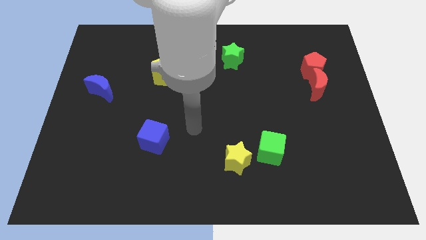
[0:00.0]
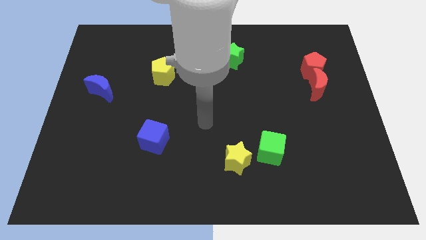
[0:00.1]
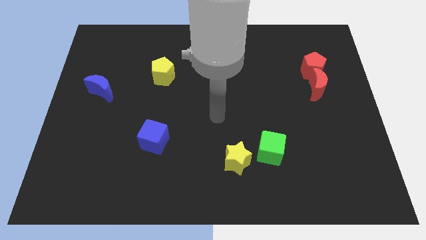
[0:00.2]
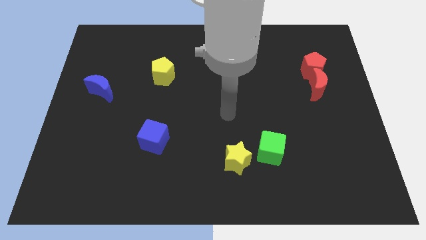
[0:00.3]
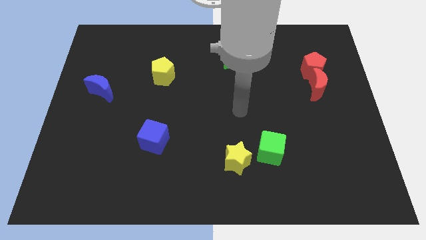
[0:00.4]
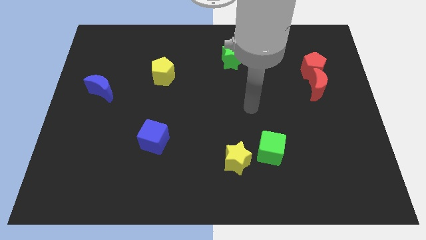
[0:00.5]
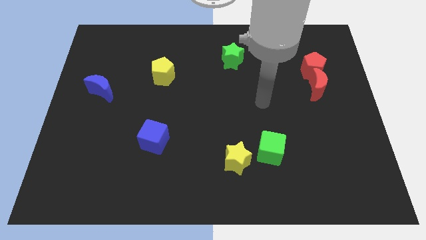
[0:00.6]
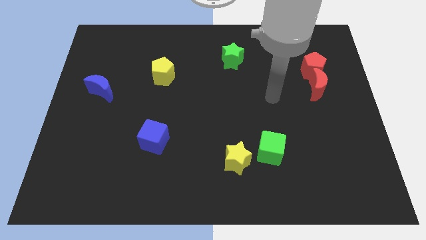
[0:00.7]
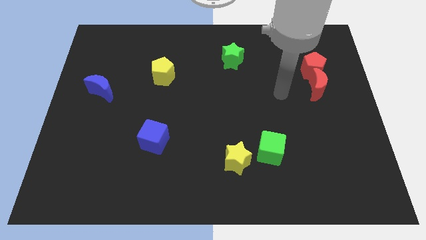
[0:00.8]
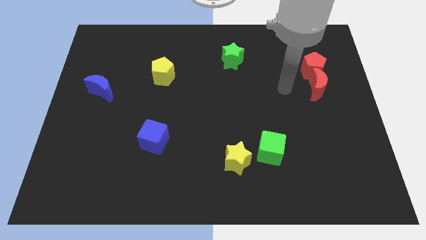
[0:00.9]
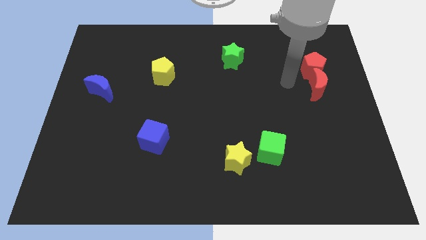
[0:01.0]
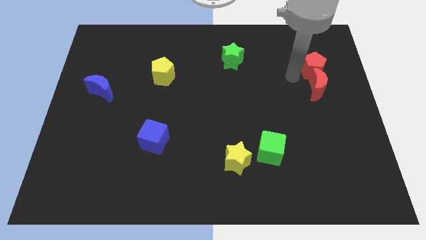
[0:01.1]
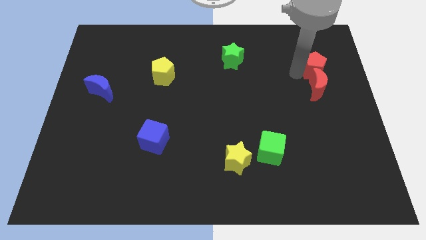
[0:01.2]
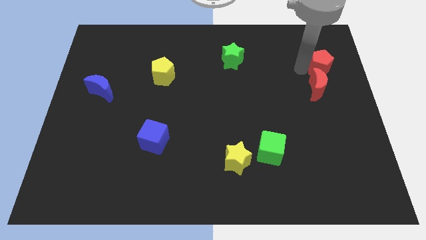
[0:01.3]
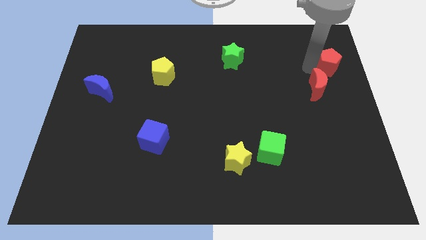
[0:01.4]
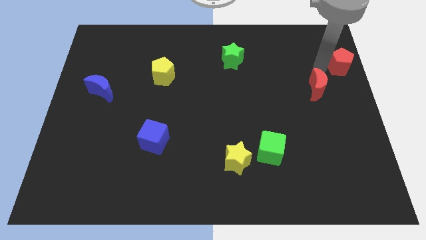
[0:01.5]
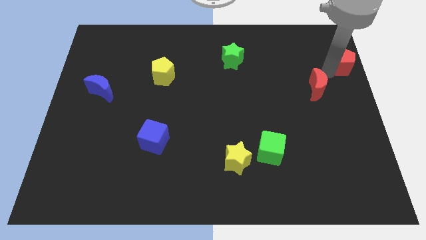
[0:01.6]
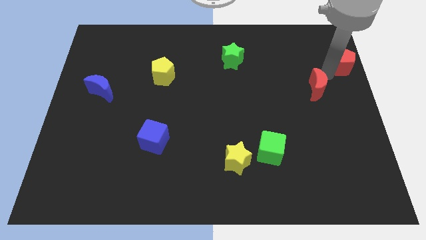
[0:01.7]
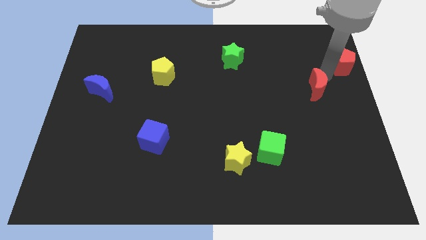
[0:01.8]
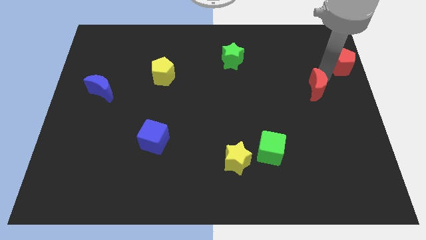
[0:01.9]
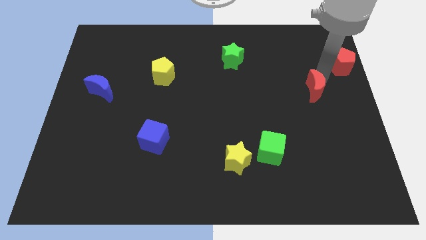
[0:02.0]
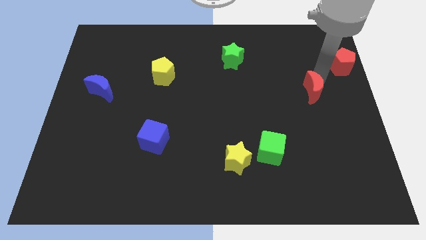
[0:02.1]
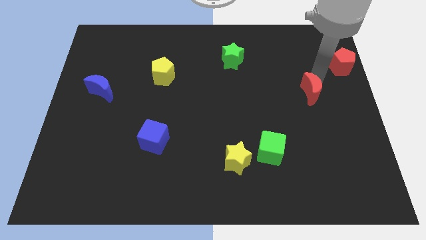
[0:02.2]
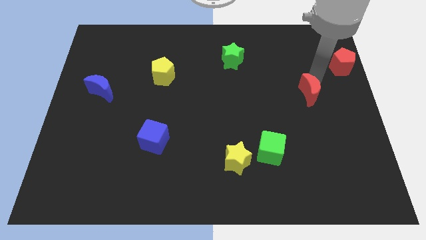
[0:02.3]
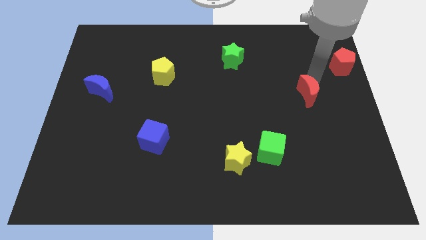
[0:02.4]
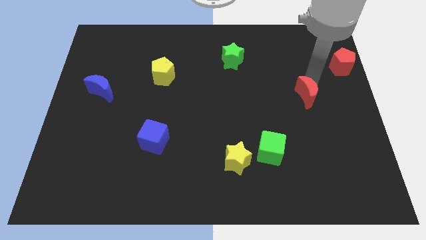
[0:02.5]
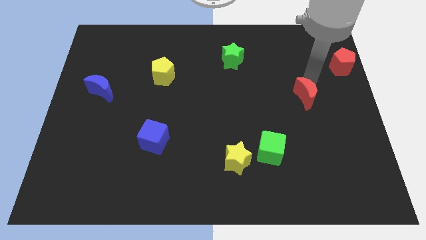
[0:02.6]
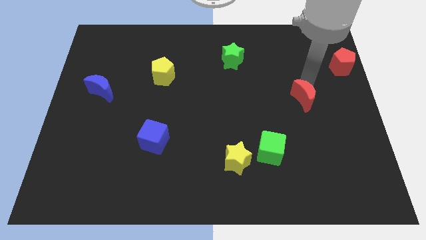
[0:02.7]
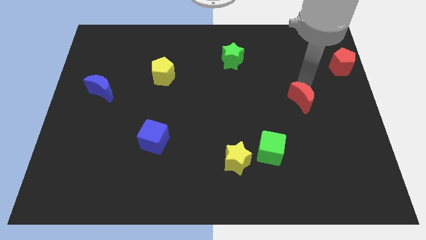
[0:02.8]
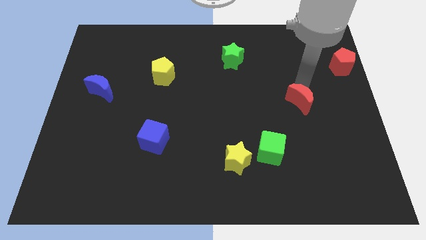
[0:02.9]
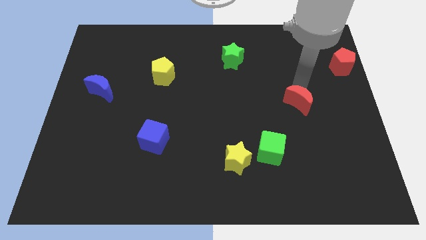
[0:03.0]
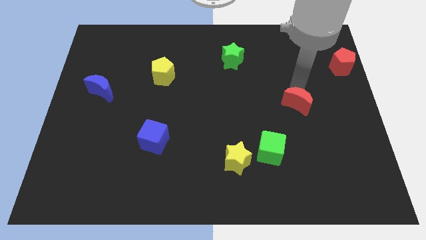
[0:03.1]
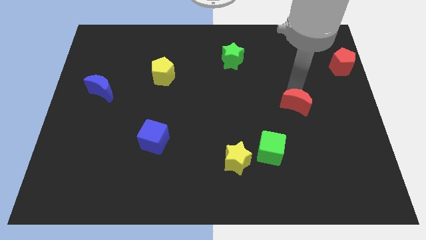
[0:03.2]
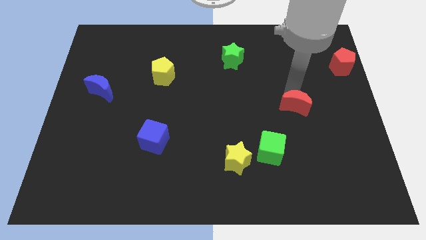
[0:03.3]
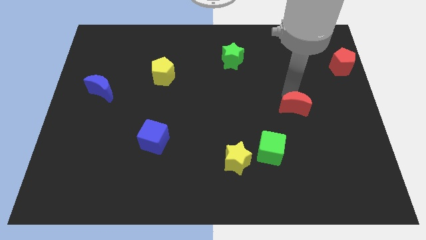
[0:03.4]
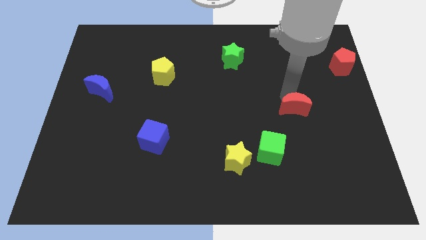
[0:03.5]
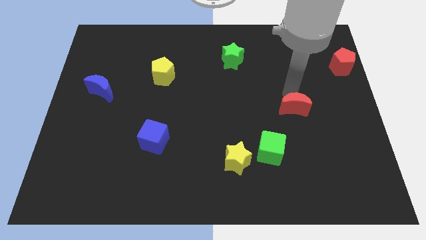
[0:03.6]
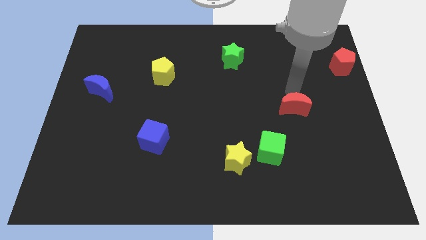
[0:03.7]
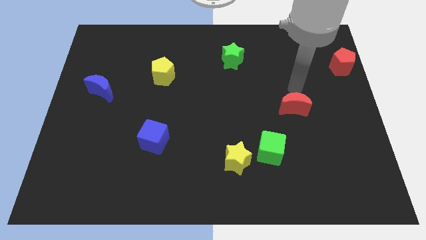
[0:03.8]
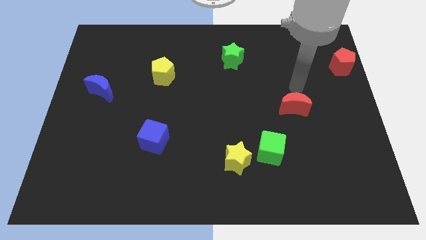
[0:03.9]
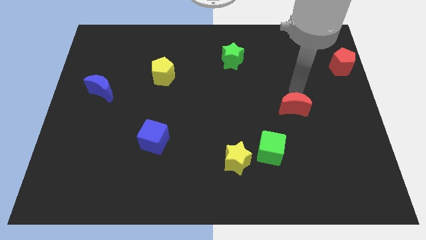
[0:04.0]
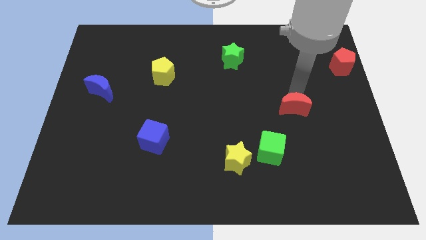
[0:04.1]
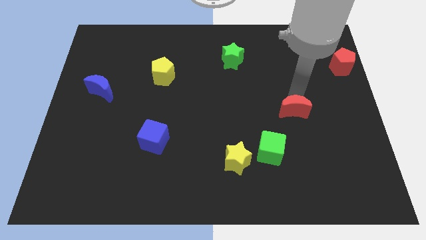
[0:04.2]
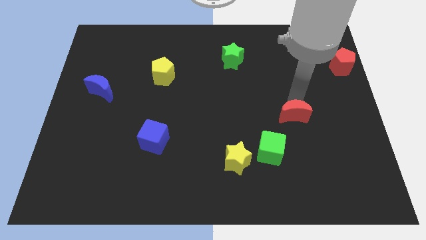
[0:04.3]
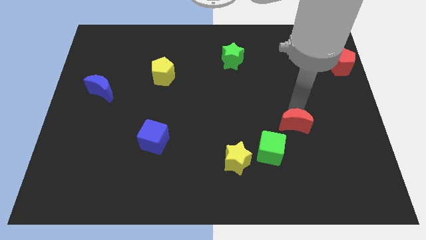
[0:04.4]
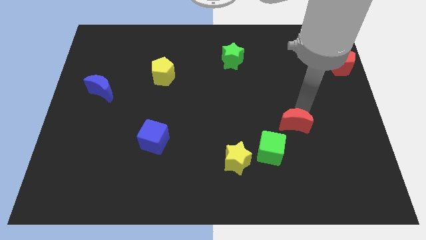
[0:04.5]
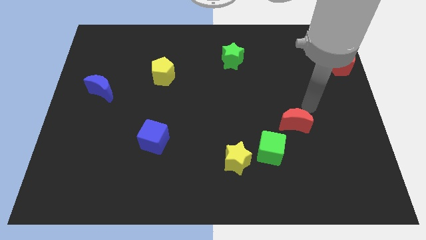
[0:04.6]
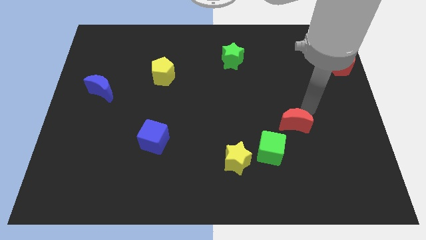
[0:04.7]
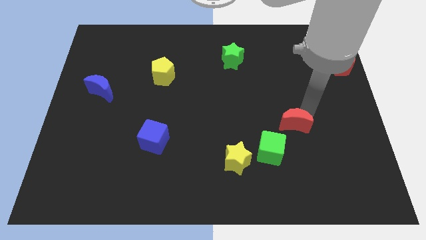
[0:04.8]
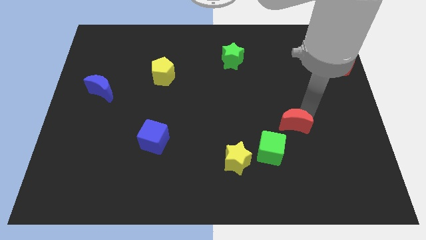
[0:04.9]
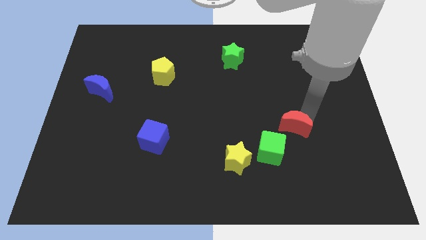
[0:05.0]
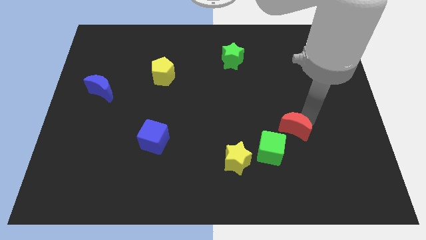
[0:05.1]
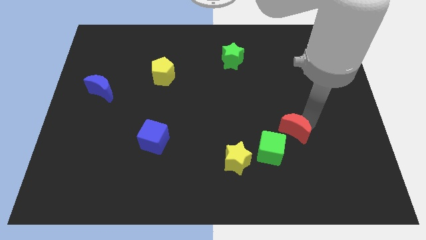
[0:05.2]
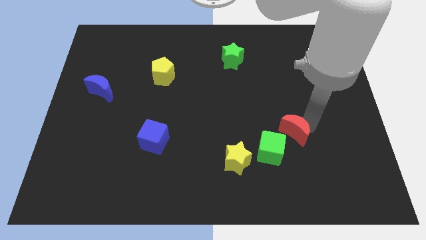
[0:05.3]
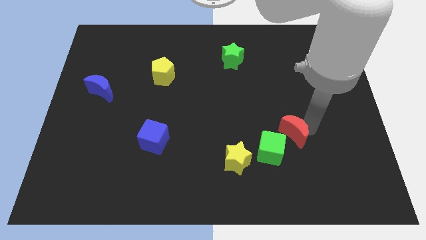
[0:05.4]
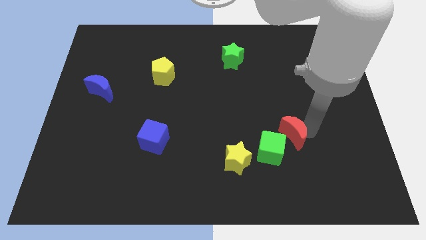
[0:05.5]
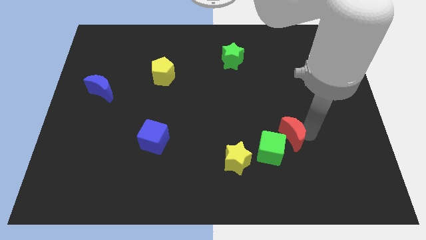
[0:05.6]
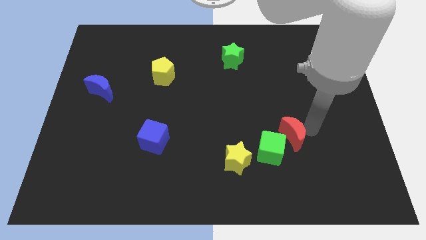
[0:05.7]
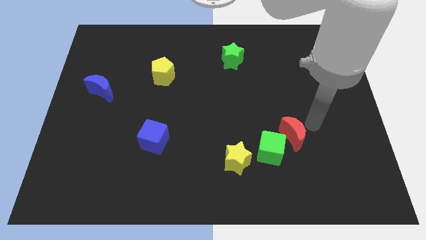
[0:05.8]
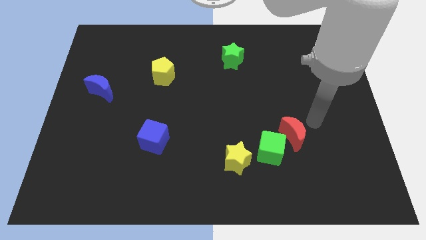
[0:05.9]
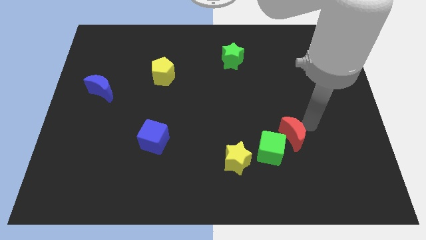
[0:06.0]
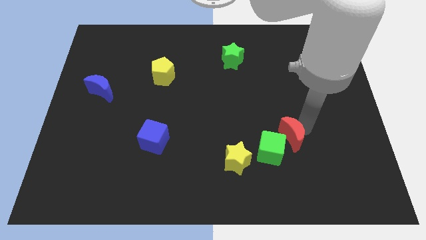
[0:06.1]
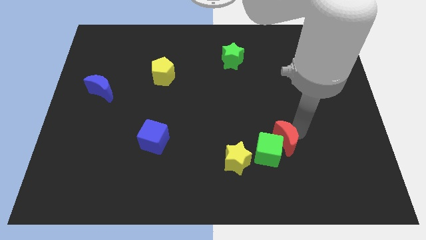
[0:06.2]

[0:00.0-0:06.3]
put the red moon towards the green cube

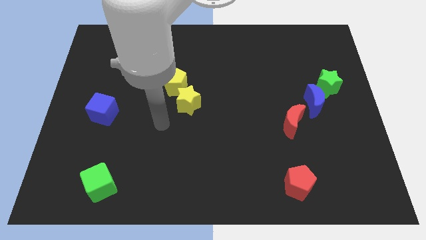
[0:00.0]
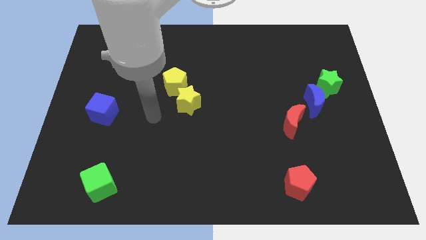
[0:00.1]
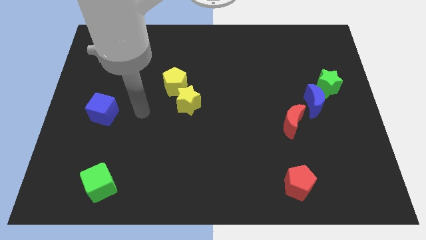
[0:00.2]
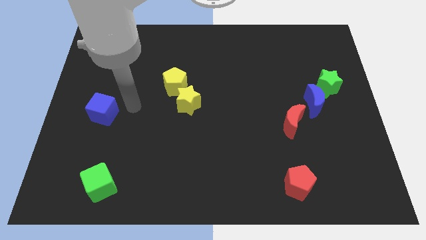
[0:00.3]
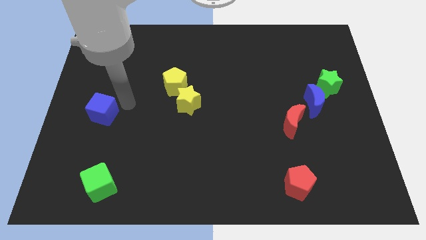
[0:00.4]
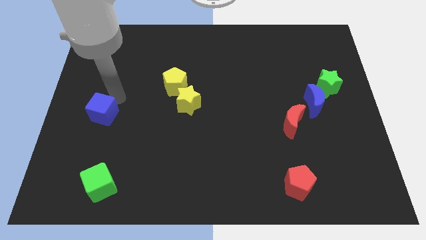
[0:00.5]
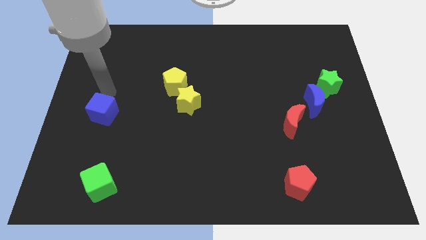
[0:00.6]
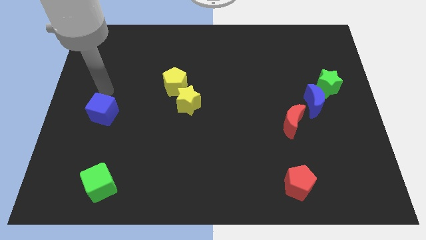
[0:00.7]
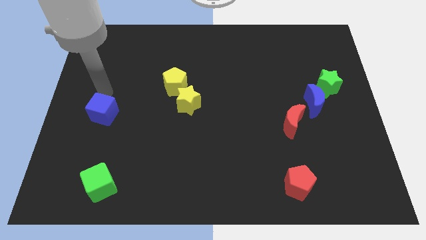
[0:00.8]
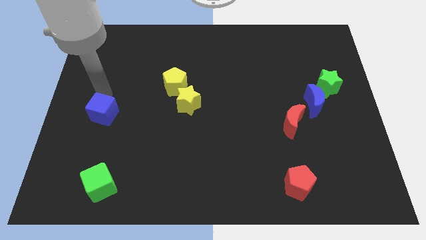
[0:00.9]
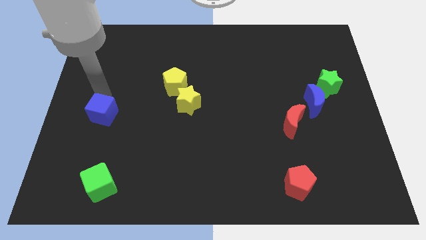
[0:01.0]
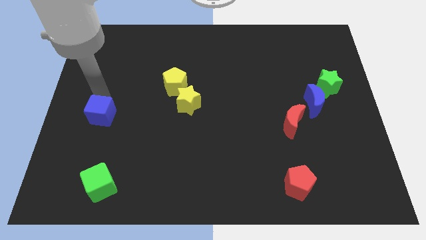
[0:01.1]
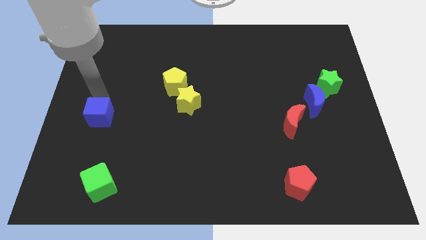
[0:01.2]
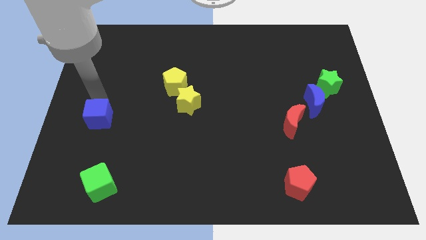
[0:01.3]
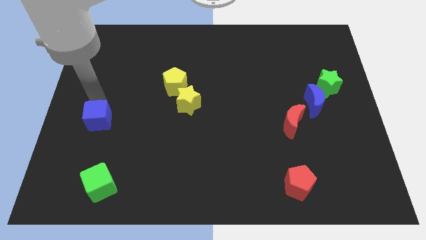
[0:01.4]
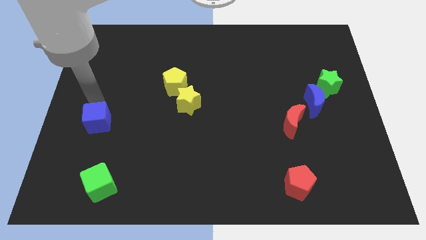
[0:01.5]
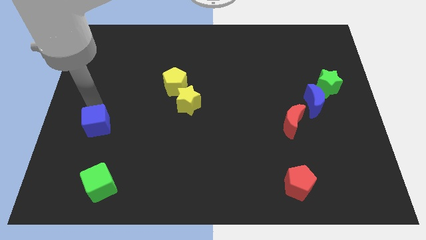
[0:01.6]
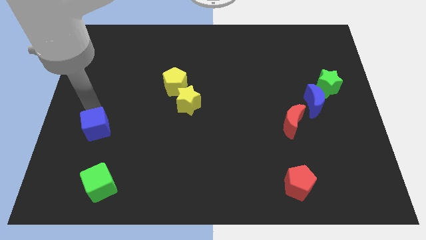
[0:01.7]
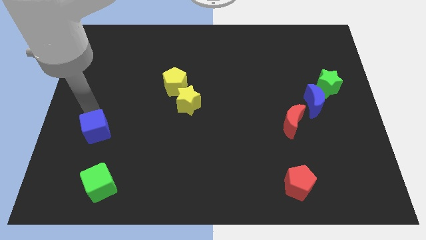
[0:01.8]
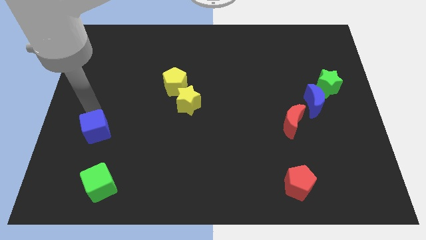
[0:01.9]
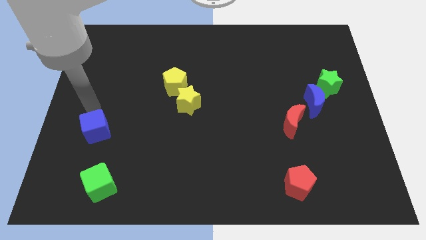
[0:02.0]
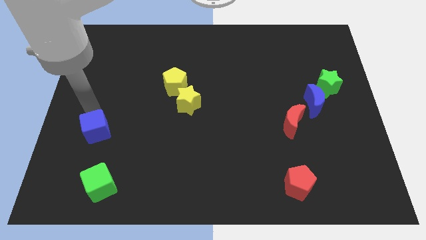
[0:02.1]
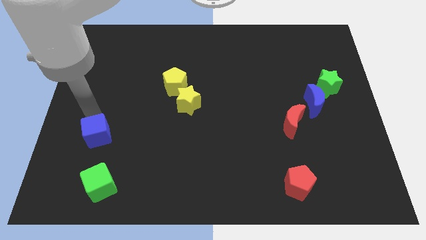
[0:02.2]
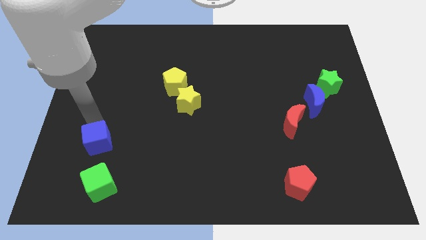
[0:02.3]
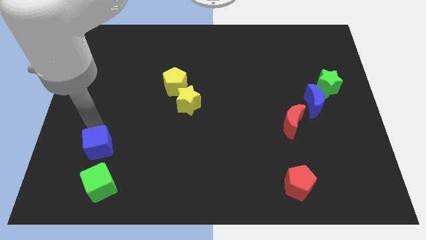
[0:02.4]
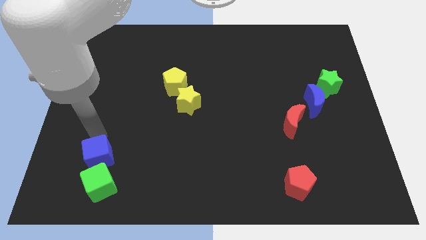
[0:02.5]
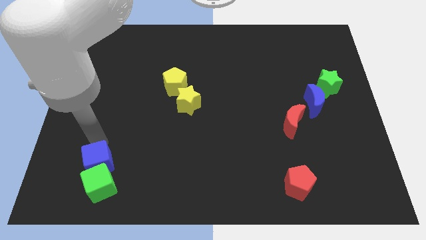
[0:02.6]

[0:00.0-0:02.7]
put the blue cube to the green cube
